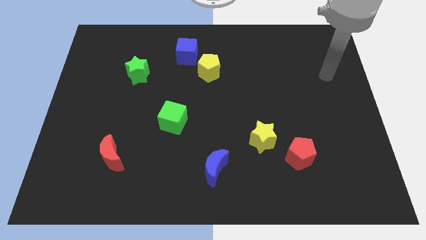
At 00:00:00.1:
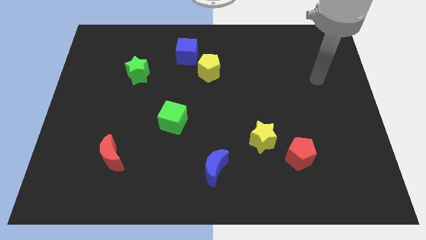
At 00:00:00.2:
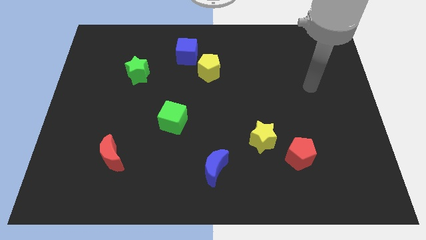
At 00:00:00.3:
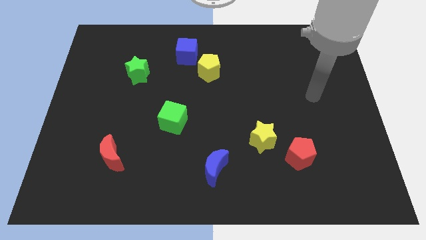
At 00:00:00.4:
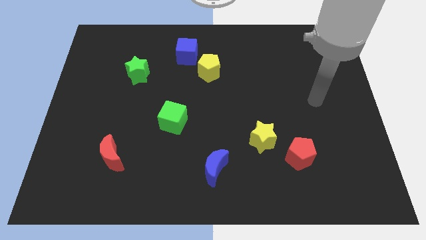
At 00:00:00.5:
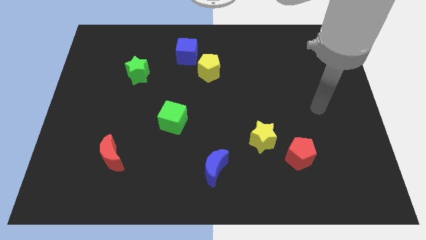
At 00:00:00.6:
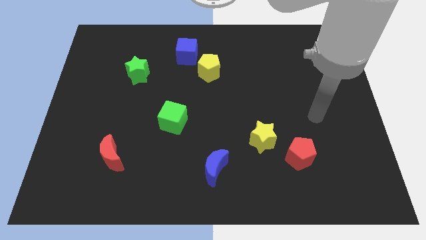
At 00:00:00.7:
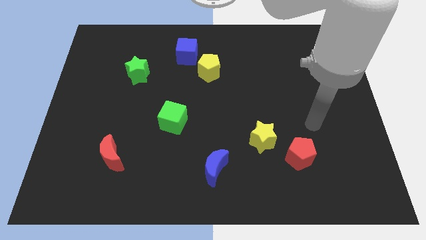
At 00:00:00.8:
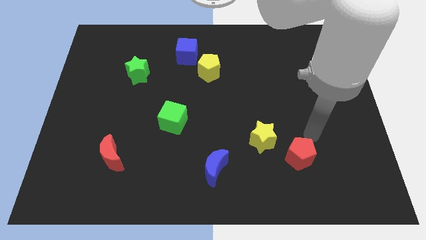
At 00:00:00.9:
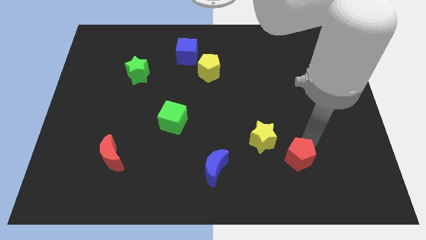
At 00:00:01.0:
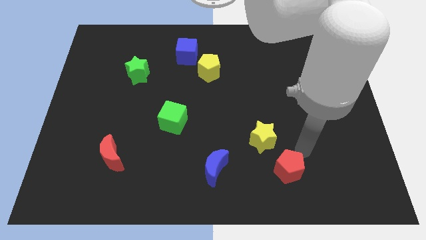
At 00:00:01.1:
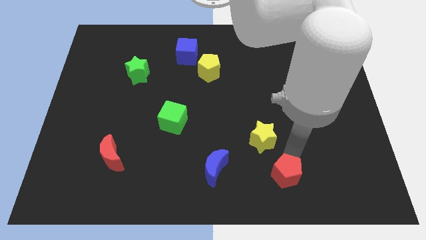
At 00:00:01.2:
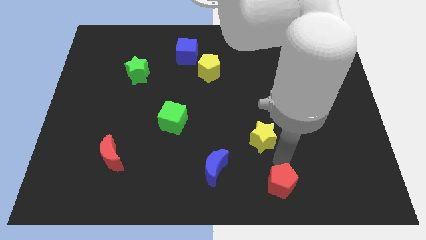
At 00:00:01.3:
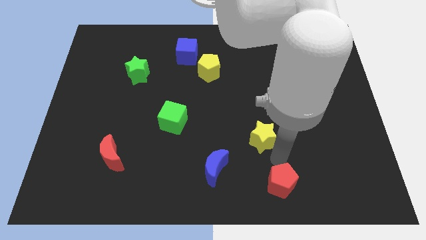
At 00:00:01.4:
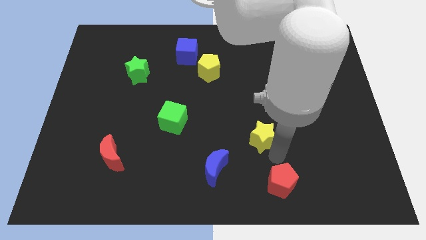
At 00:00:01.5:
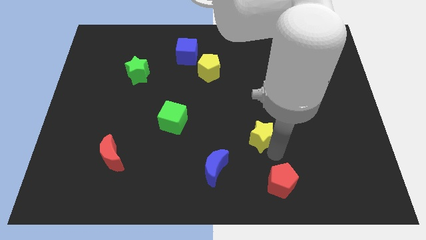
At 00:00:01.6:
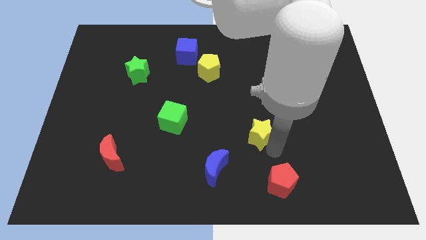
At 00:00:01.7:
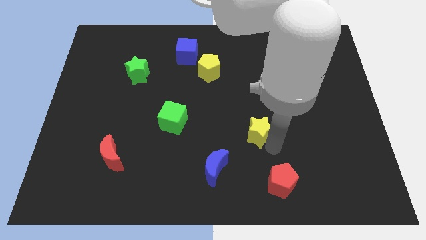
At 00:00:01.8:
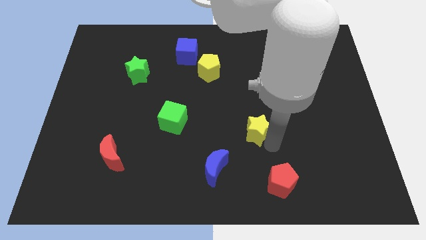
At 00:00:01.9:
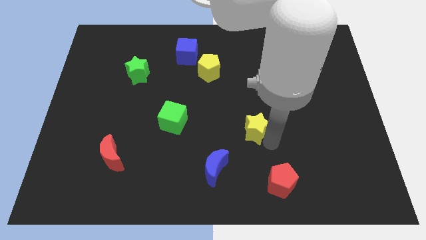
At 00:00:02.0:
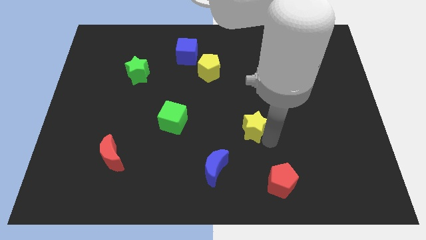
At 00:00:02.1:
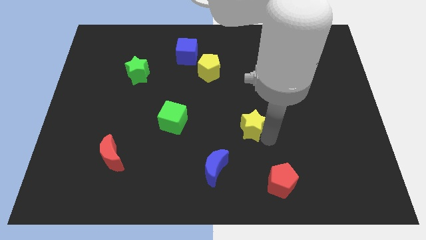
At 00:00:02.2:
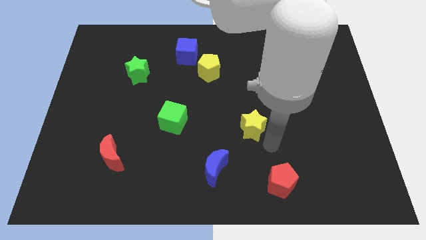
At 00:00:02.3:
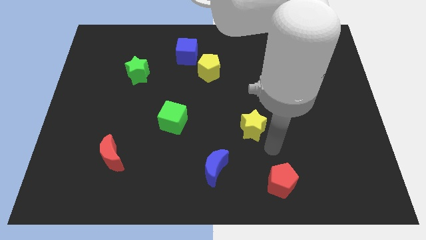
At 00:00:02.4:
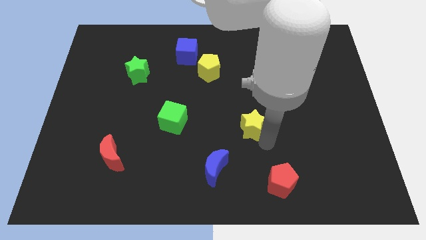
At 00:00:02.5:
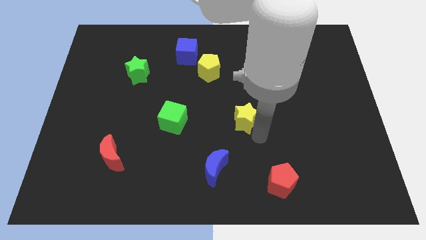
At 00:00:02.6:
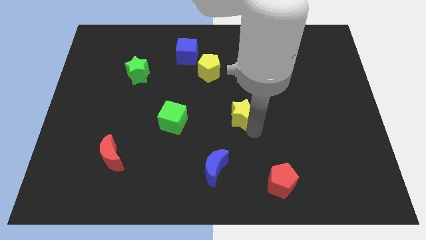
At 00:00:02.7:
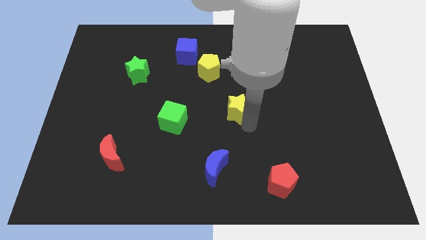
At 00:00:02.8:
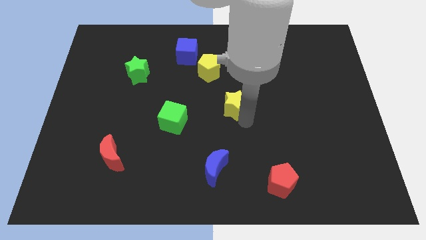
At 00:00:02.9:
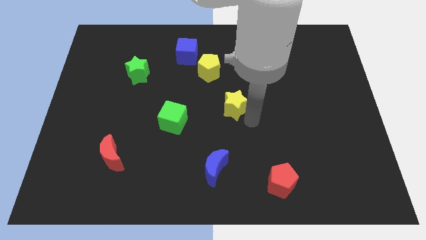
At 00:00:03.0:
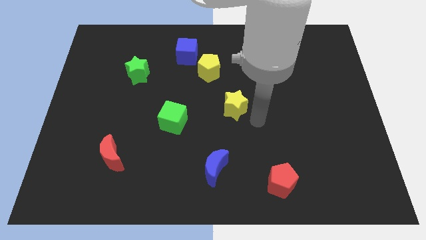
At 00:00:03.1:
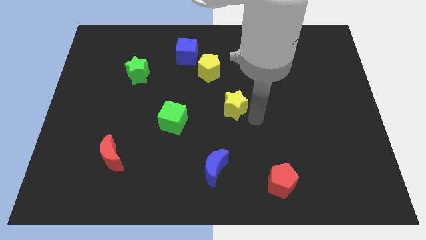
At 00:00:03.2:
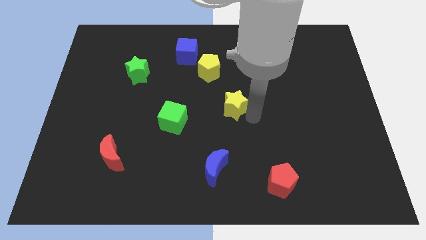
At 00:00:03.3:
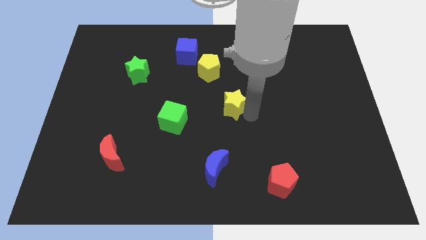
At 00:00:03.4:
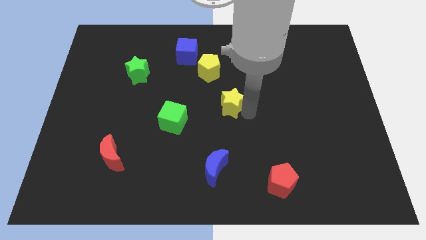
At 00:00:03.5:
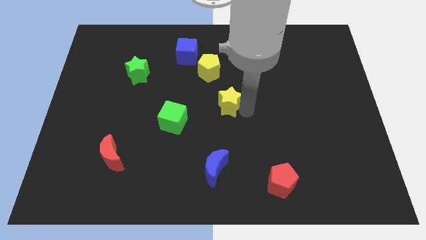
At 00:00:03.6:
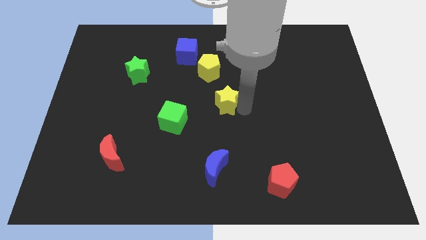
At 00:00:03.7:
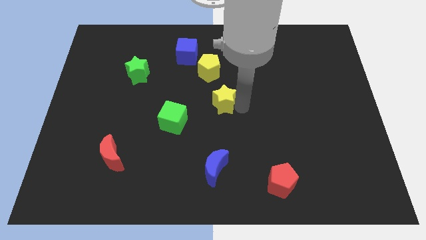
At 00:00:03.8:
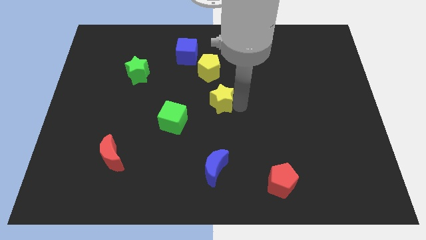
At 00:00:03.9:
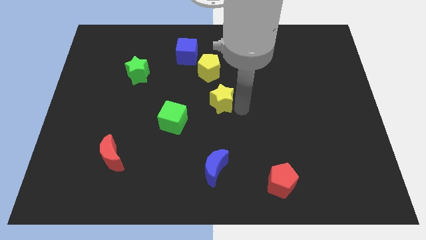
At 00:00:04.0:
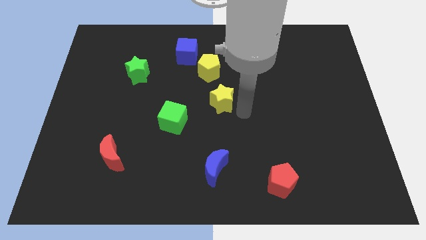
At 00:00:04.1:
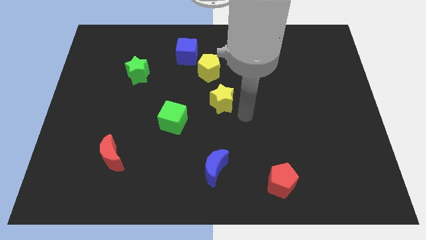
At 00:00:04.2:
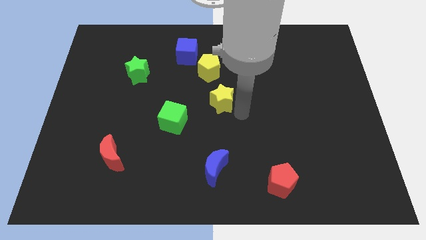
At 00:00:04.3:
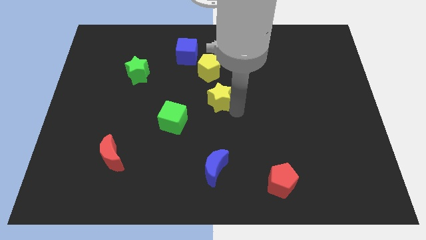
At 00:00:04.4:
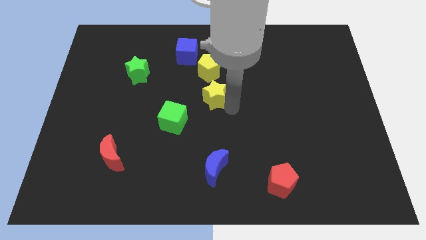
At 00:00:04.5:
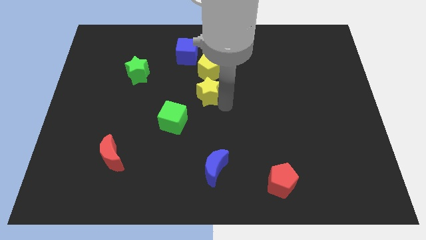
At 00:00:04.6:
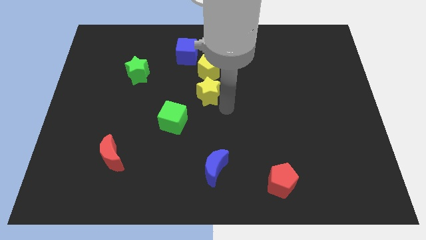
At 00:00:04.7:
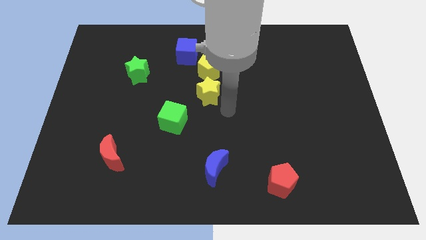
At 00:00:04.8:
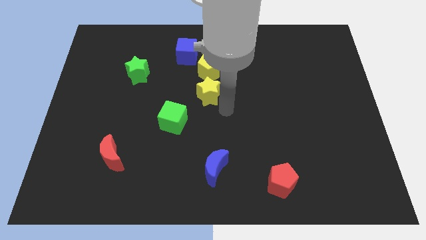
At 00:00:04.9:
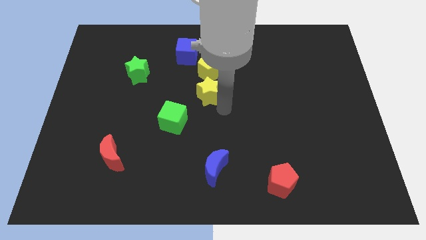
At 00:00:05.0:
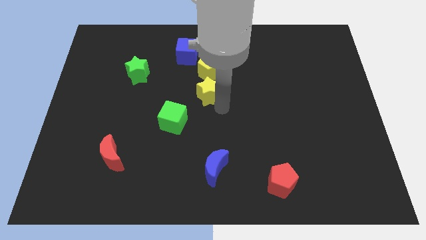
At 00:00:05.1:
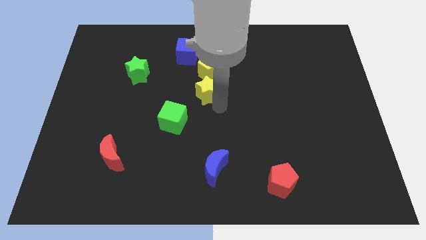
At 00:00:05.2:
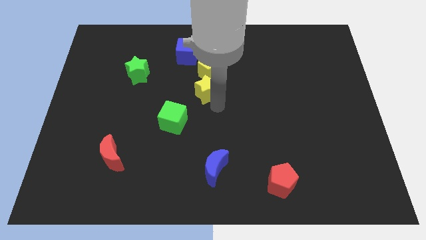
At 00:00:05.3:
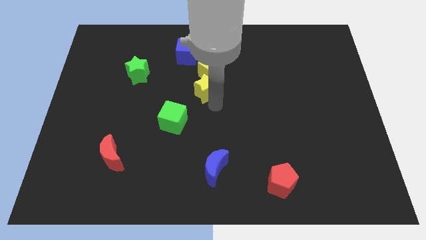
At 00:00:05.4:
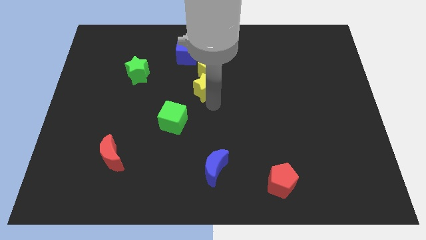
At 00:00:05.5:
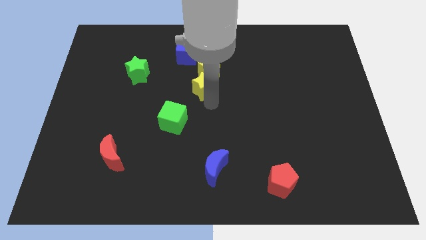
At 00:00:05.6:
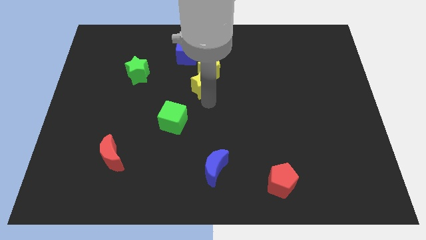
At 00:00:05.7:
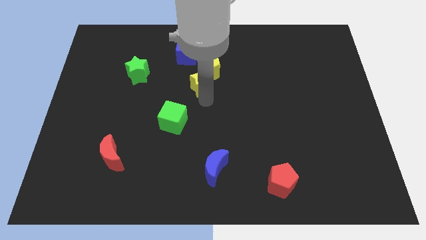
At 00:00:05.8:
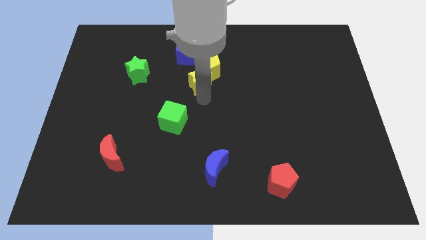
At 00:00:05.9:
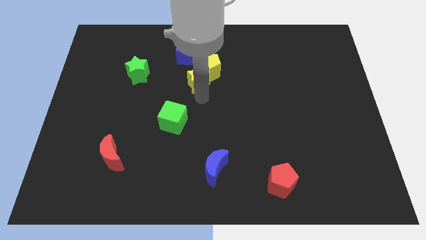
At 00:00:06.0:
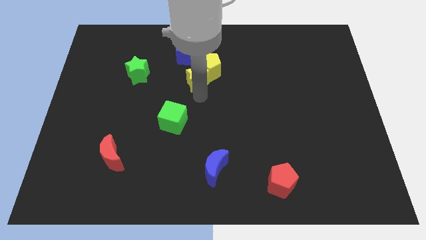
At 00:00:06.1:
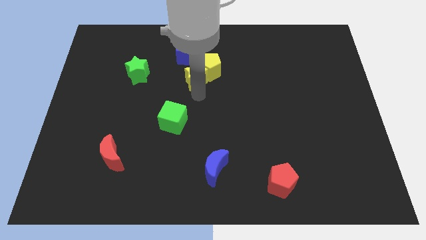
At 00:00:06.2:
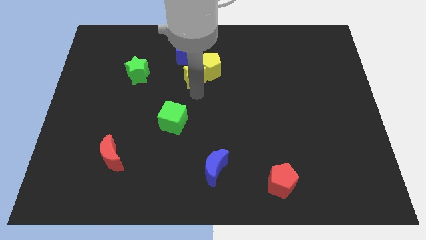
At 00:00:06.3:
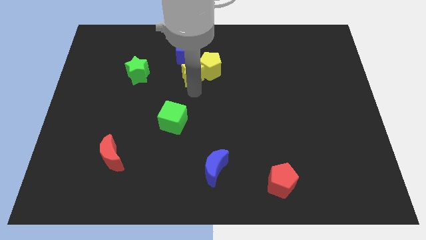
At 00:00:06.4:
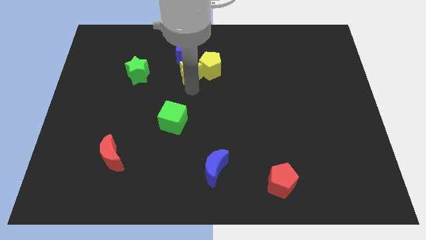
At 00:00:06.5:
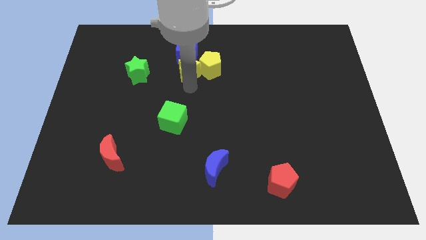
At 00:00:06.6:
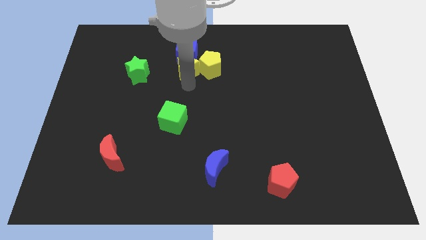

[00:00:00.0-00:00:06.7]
put the yellow star to the blue cube
